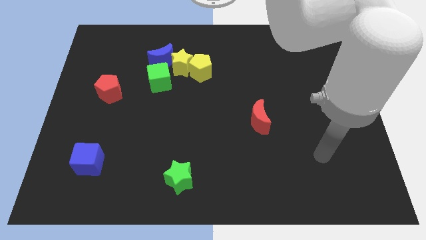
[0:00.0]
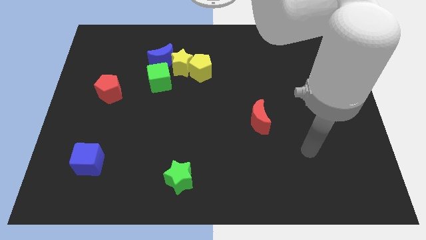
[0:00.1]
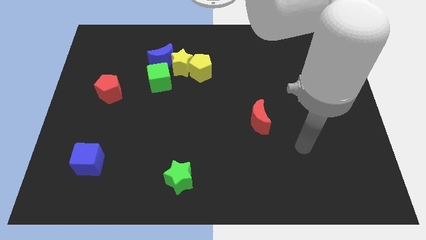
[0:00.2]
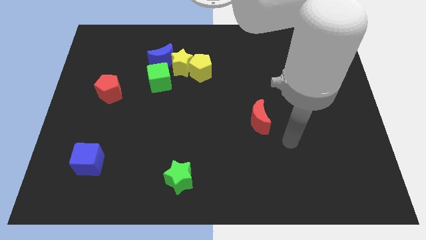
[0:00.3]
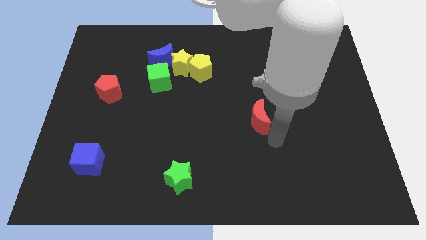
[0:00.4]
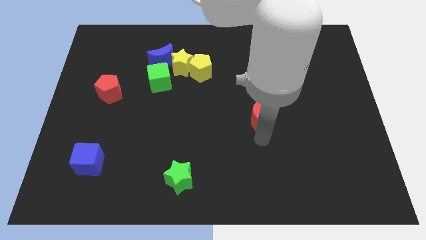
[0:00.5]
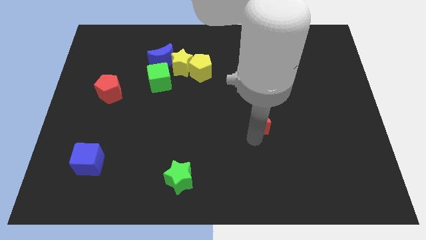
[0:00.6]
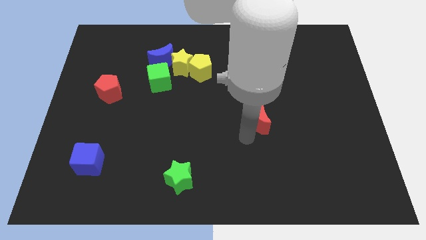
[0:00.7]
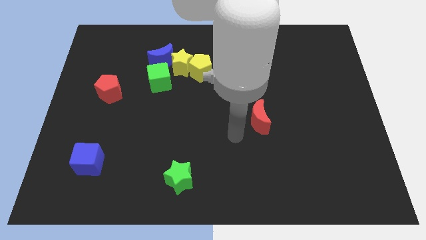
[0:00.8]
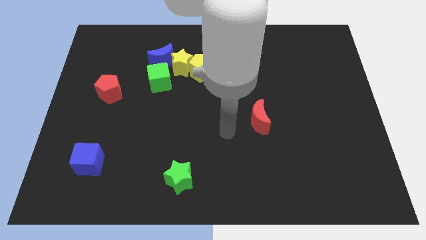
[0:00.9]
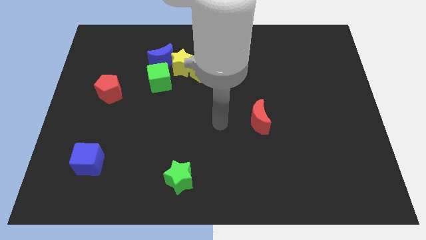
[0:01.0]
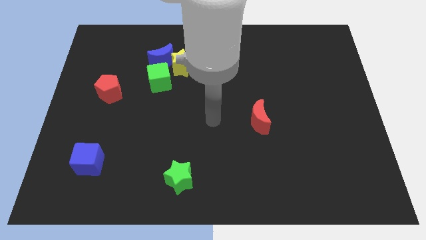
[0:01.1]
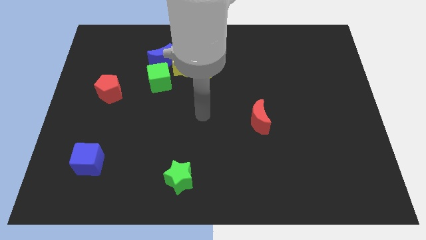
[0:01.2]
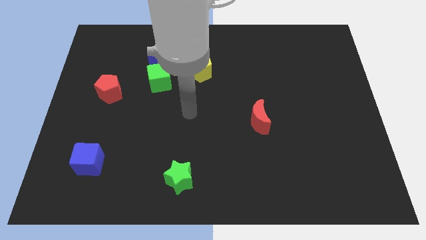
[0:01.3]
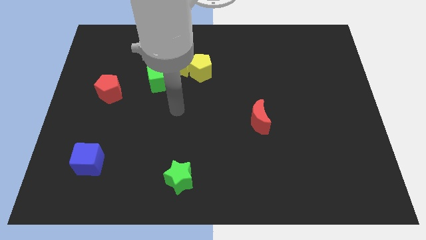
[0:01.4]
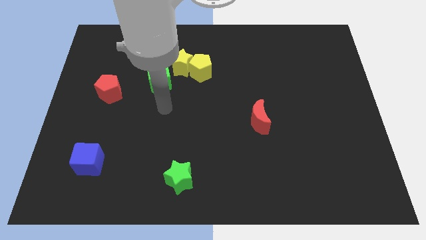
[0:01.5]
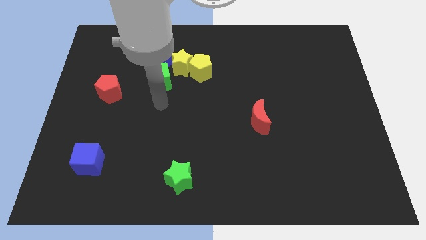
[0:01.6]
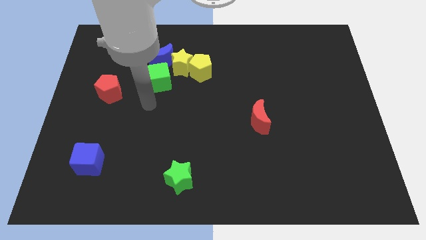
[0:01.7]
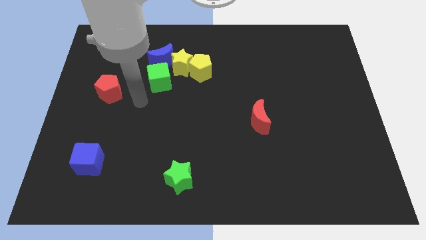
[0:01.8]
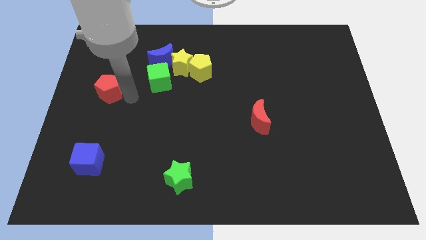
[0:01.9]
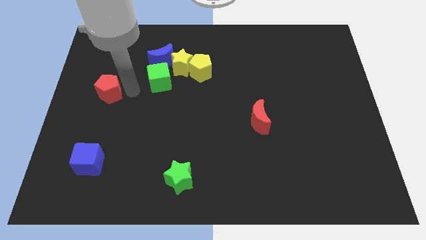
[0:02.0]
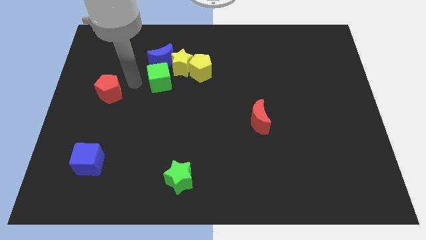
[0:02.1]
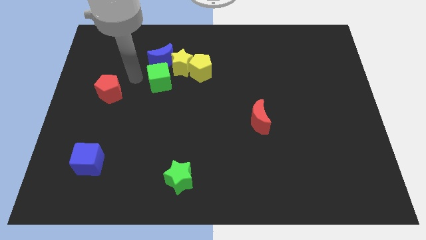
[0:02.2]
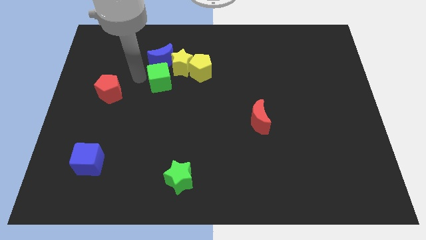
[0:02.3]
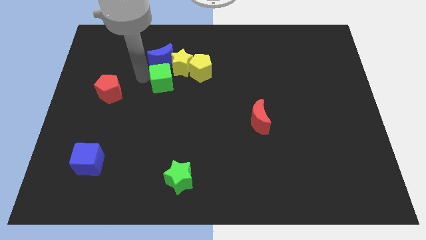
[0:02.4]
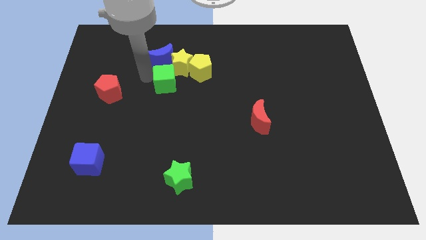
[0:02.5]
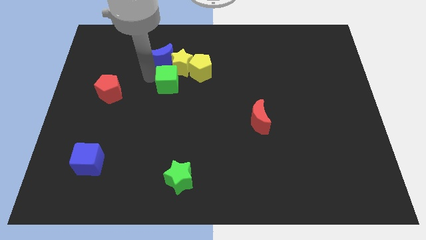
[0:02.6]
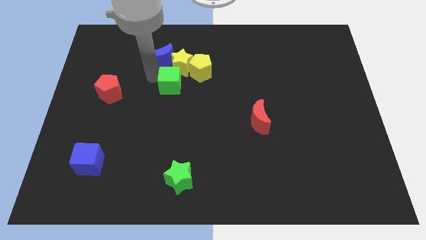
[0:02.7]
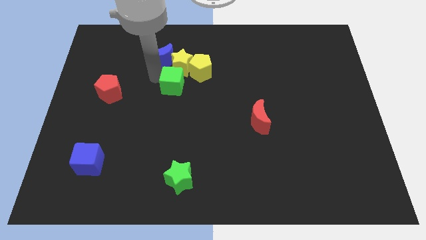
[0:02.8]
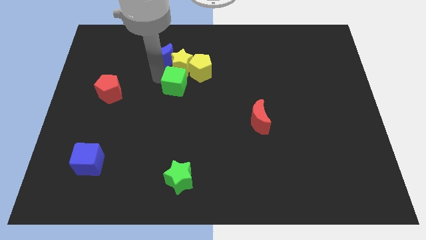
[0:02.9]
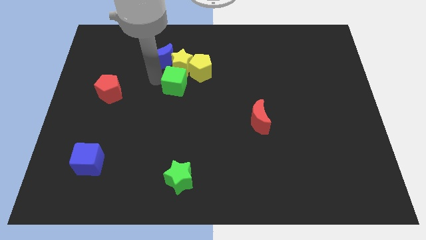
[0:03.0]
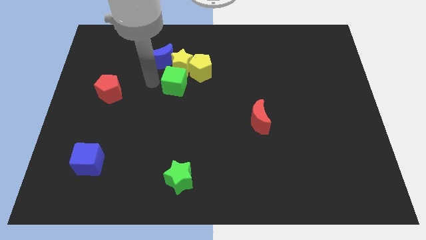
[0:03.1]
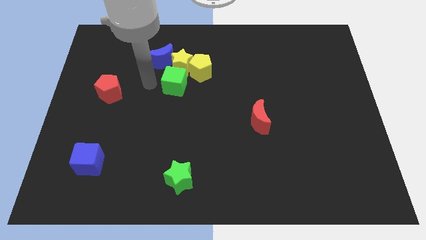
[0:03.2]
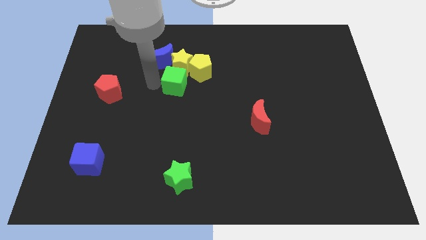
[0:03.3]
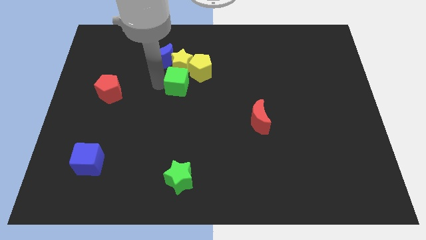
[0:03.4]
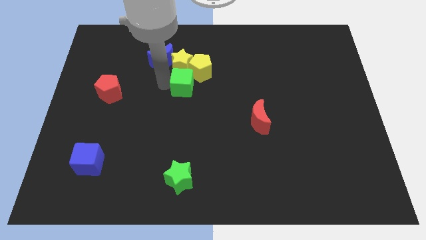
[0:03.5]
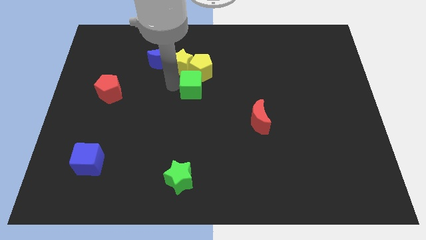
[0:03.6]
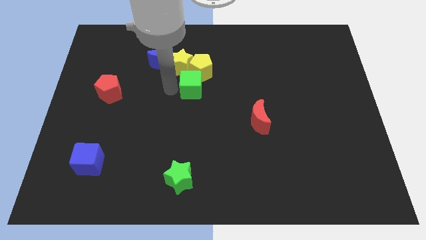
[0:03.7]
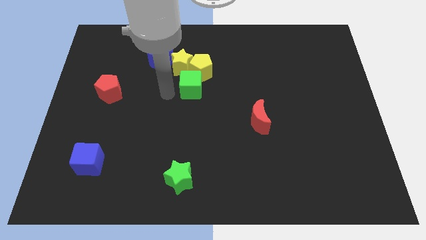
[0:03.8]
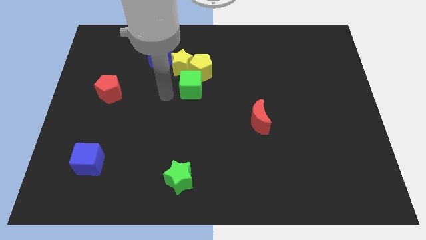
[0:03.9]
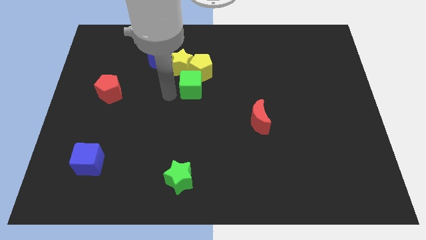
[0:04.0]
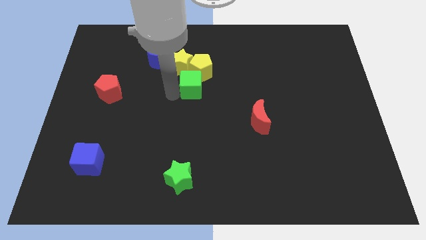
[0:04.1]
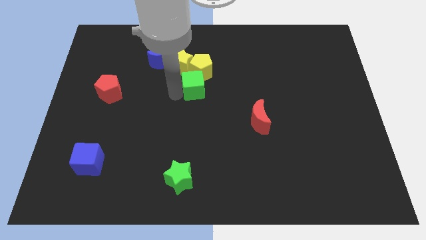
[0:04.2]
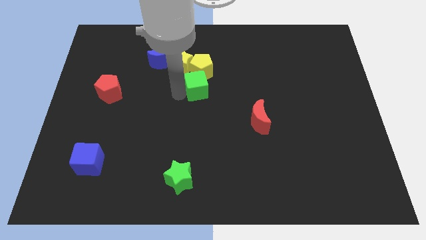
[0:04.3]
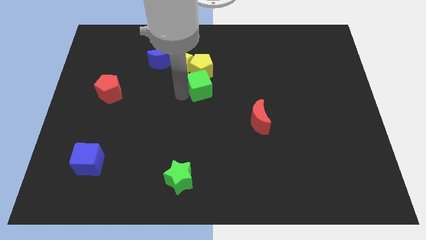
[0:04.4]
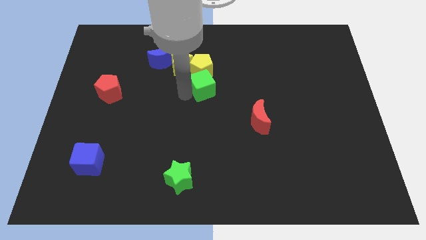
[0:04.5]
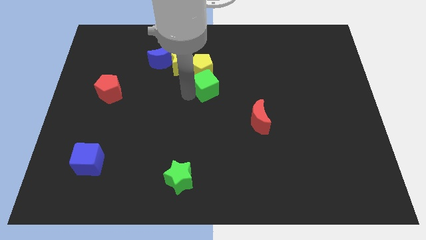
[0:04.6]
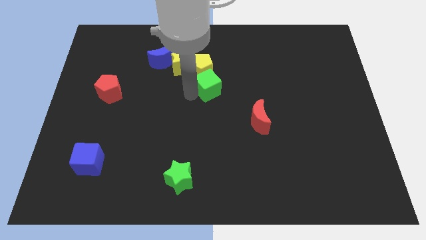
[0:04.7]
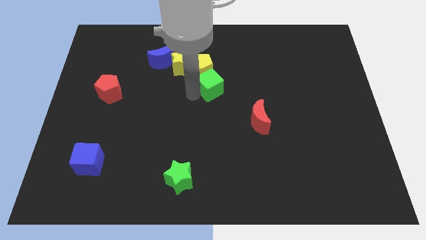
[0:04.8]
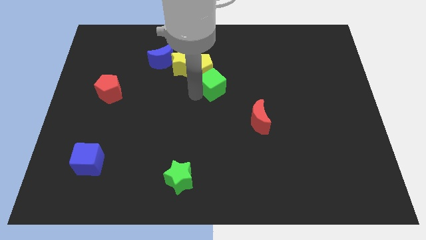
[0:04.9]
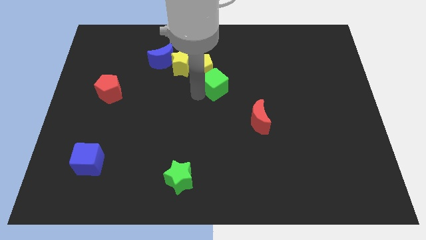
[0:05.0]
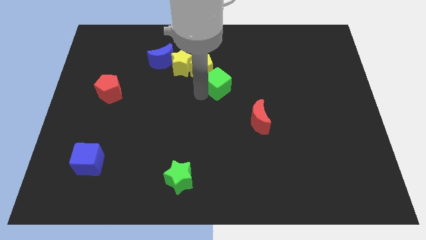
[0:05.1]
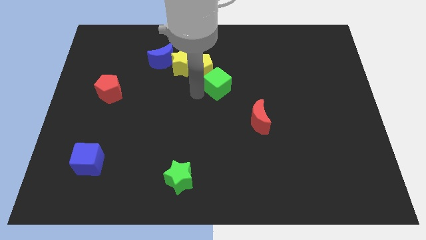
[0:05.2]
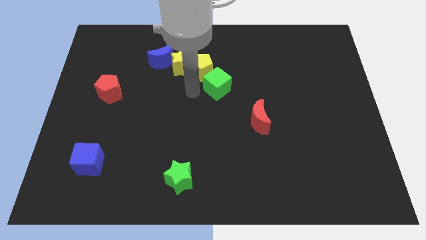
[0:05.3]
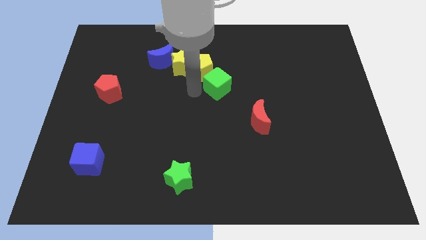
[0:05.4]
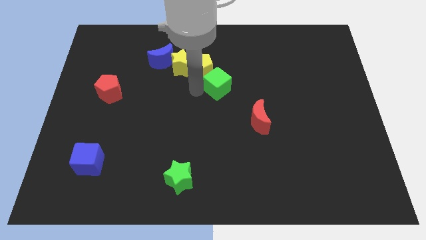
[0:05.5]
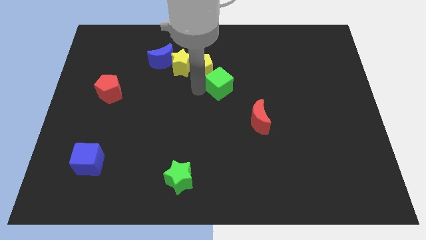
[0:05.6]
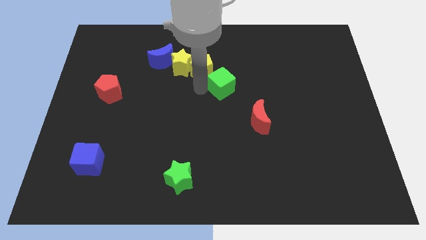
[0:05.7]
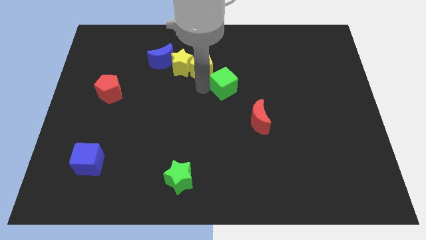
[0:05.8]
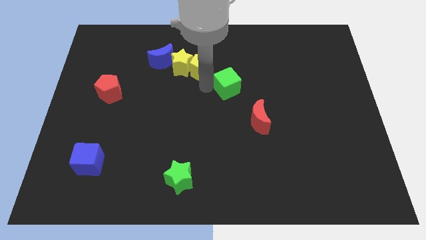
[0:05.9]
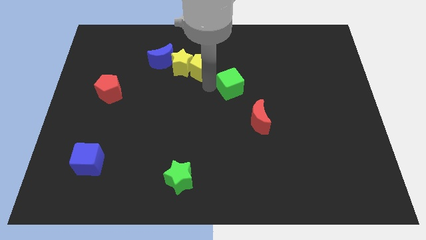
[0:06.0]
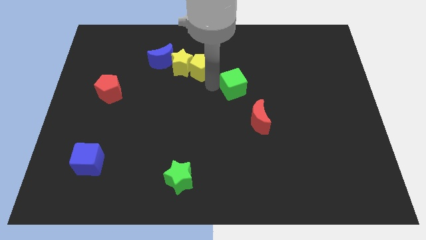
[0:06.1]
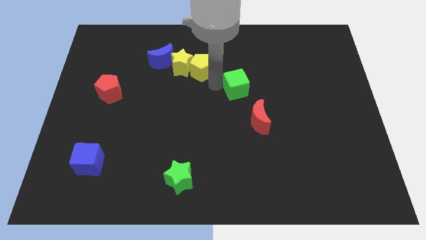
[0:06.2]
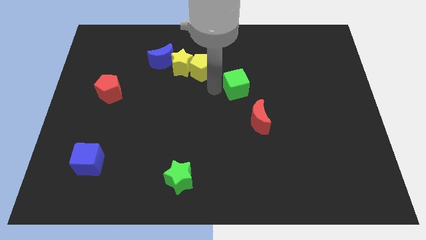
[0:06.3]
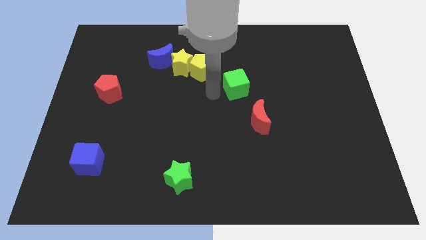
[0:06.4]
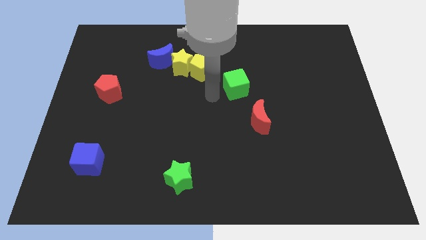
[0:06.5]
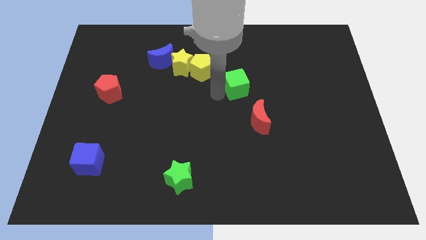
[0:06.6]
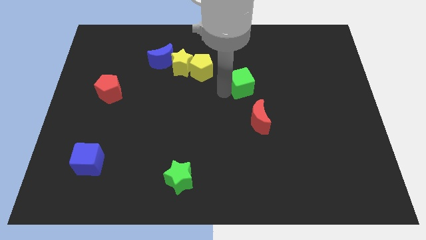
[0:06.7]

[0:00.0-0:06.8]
push the green cube to the right

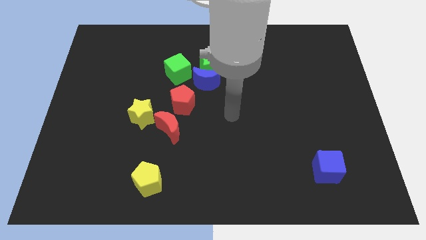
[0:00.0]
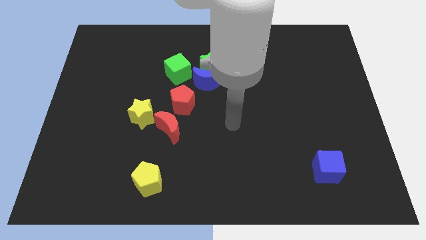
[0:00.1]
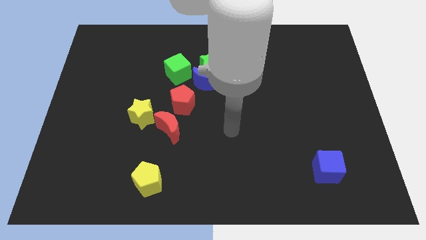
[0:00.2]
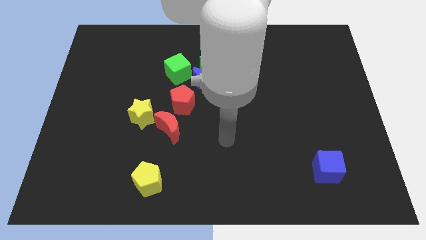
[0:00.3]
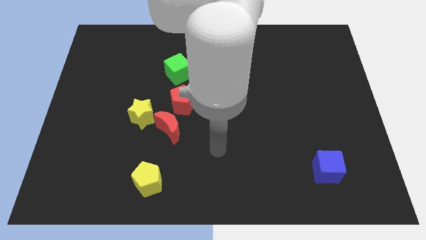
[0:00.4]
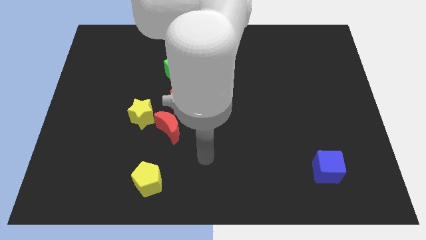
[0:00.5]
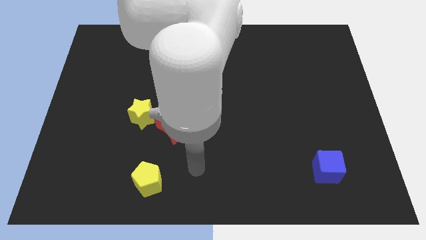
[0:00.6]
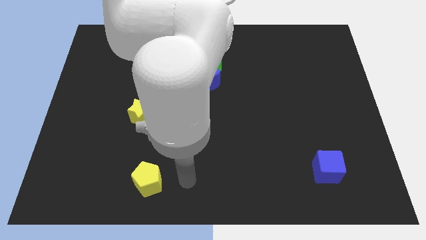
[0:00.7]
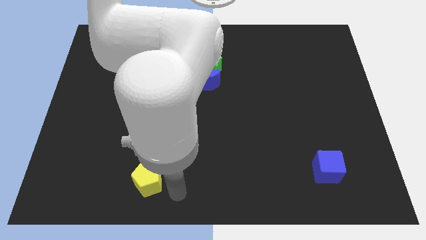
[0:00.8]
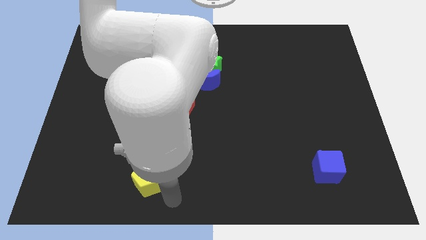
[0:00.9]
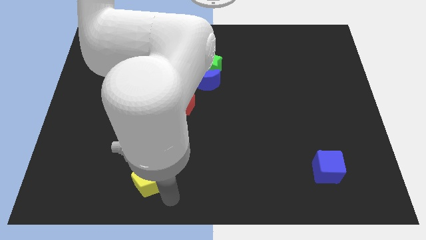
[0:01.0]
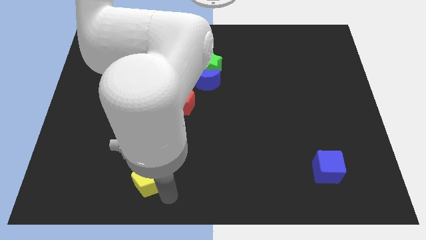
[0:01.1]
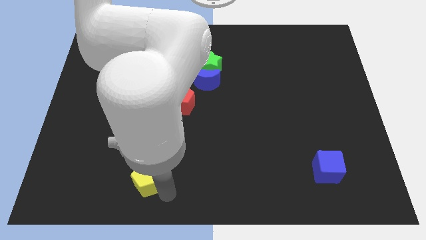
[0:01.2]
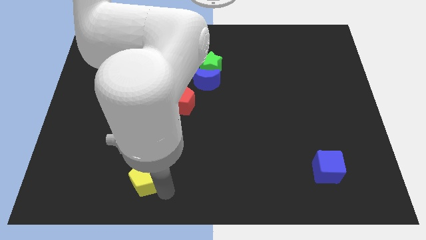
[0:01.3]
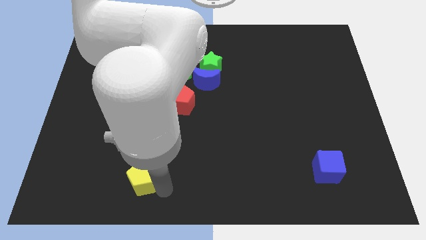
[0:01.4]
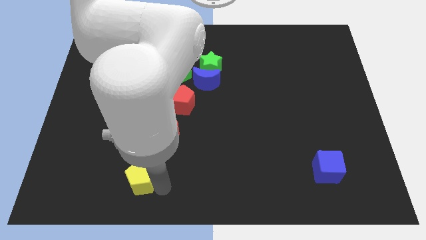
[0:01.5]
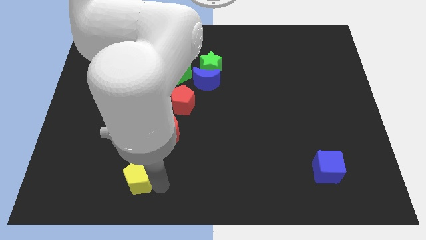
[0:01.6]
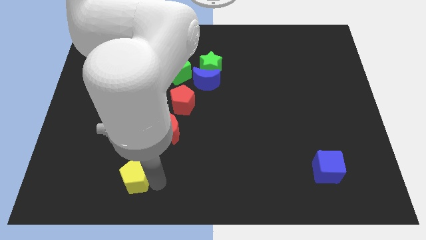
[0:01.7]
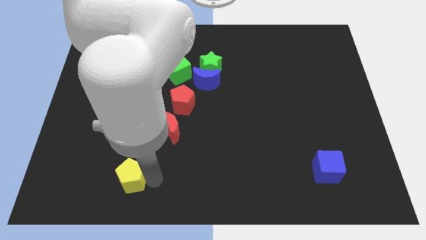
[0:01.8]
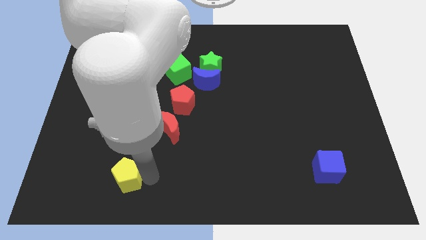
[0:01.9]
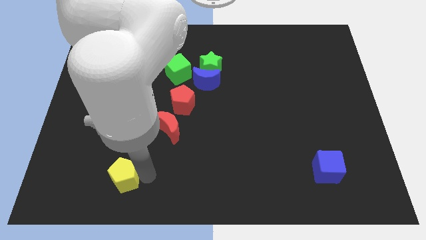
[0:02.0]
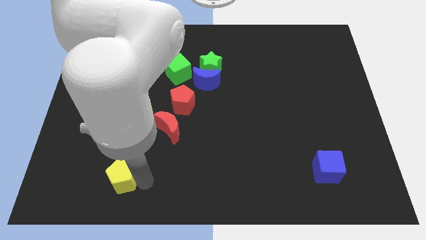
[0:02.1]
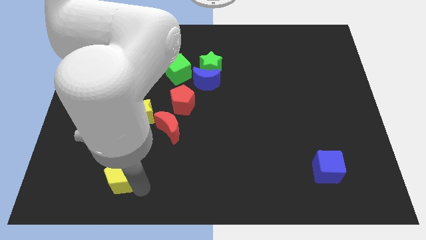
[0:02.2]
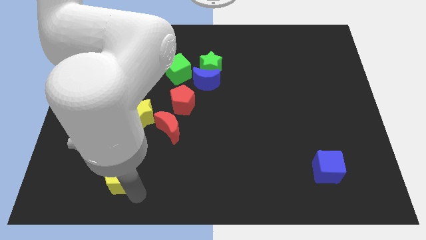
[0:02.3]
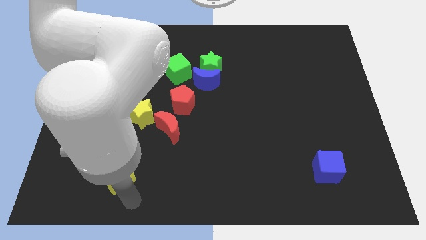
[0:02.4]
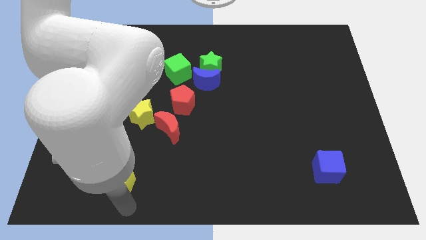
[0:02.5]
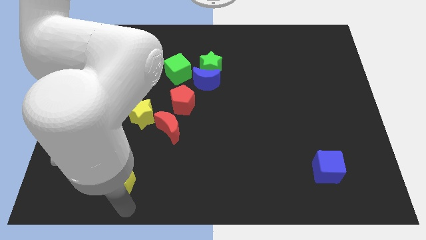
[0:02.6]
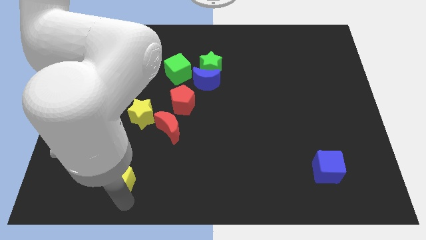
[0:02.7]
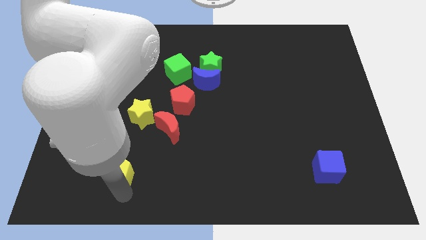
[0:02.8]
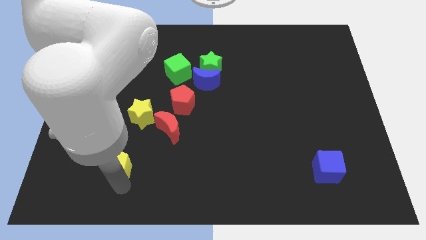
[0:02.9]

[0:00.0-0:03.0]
slide the yellow pentagon slightly upwards and then left
